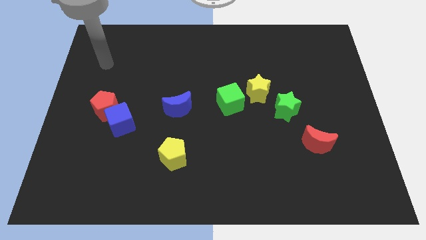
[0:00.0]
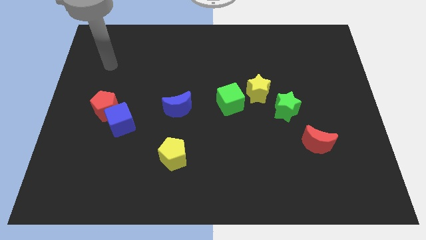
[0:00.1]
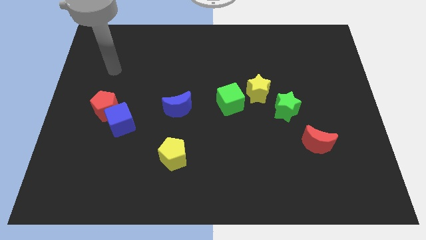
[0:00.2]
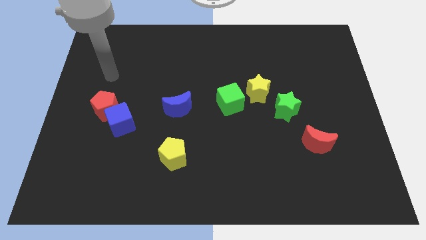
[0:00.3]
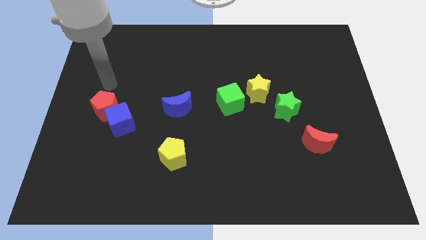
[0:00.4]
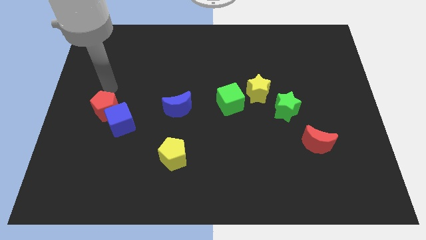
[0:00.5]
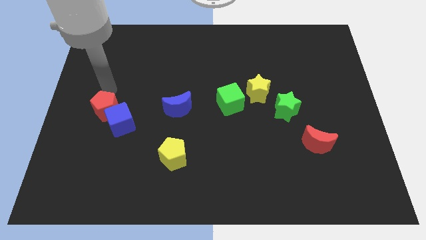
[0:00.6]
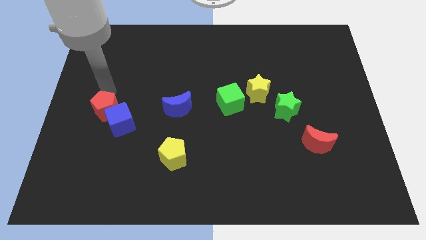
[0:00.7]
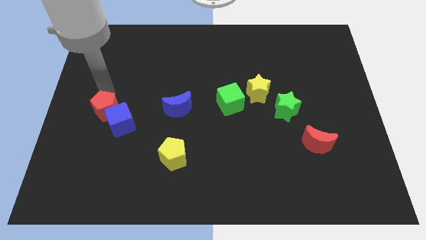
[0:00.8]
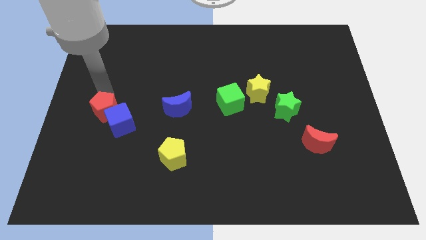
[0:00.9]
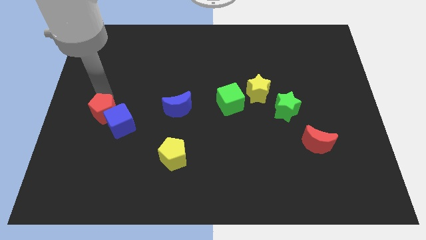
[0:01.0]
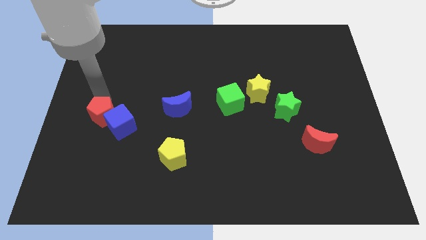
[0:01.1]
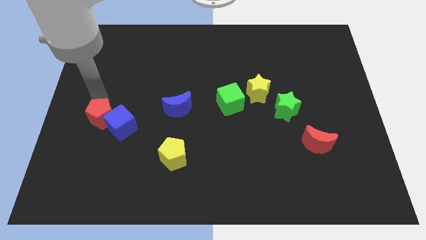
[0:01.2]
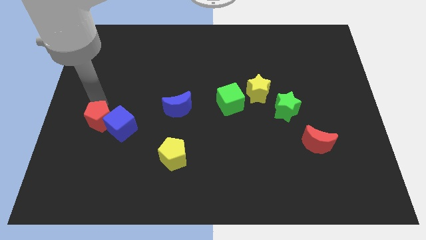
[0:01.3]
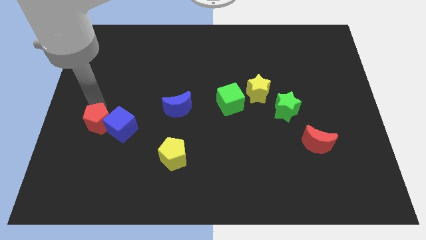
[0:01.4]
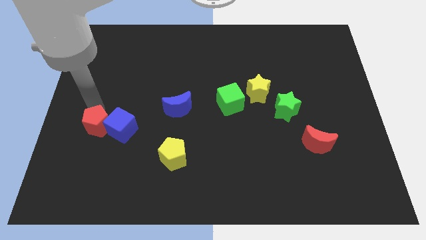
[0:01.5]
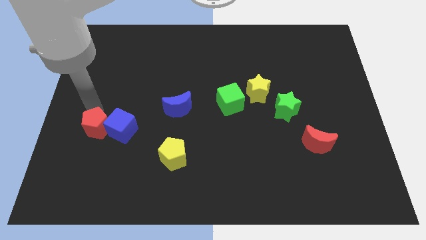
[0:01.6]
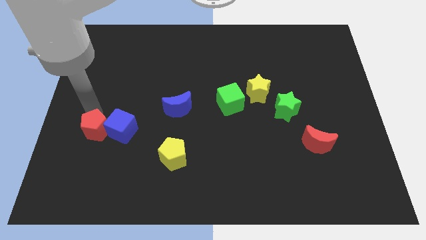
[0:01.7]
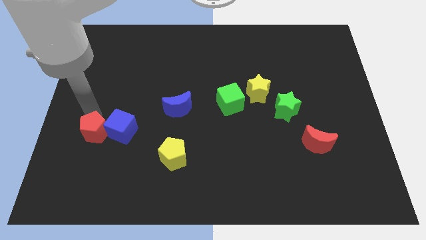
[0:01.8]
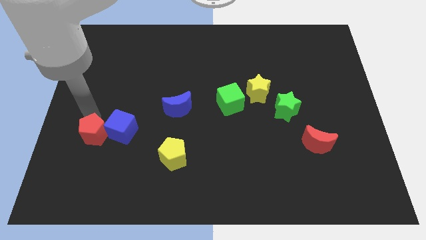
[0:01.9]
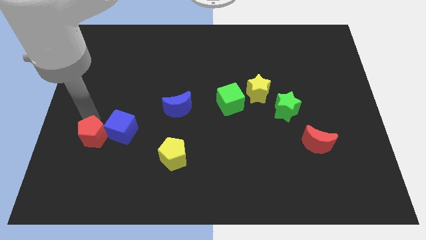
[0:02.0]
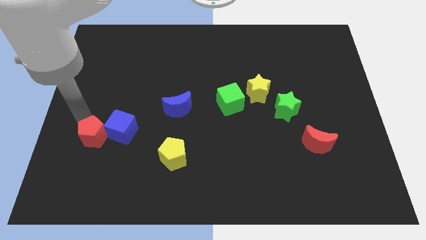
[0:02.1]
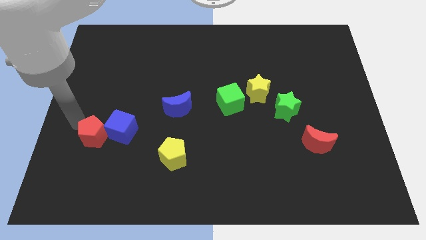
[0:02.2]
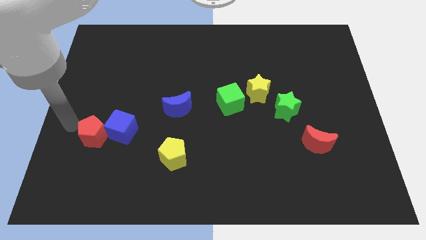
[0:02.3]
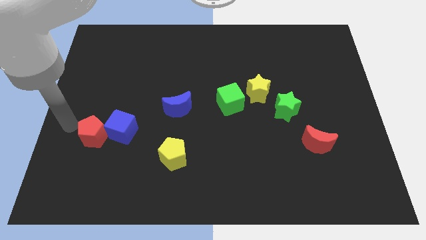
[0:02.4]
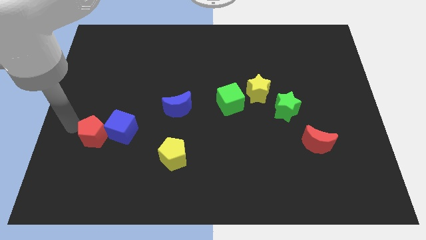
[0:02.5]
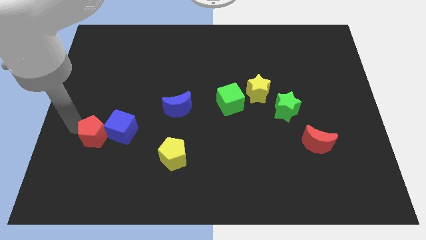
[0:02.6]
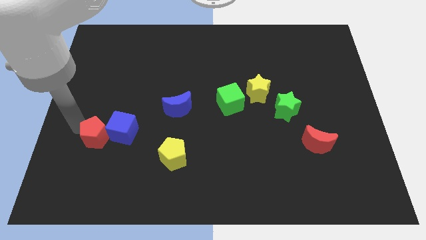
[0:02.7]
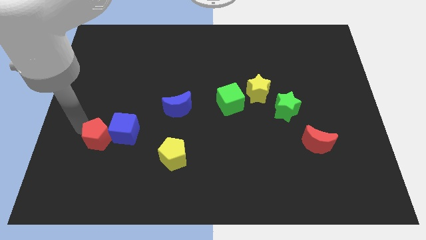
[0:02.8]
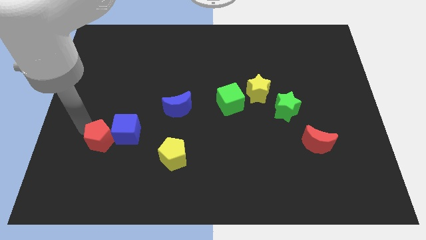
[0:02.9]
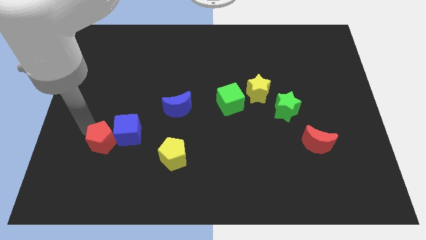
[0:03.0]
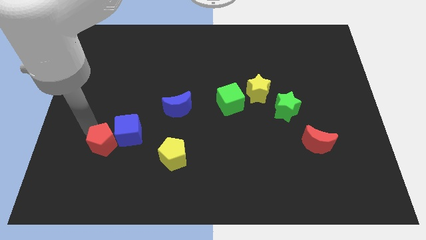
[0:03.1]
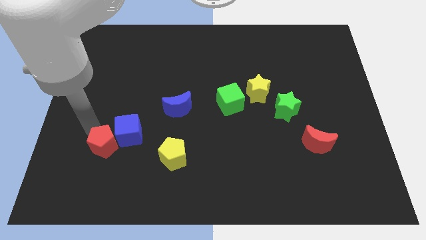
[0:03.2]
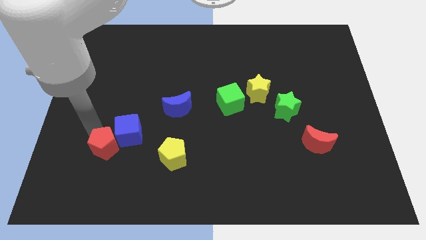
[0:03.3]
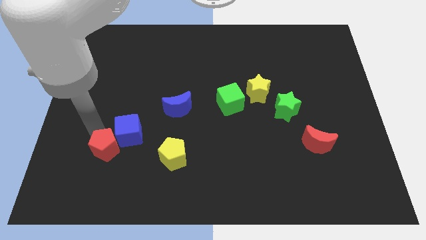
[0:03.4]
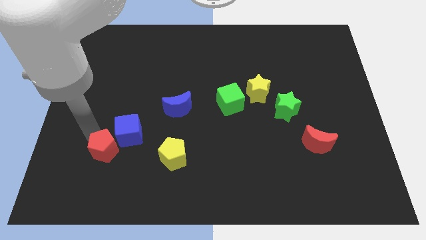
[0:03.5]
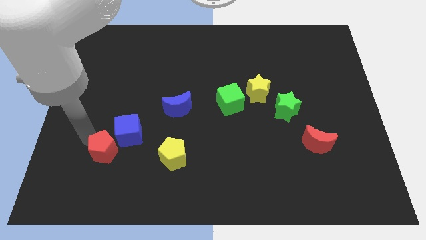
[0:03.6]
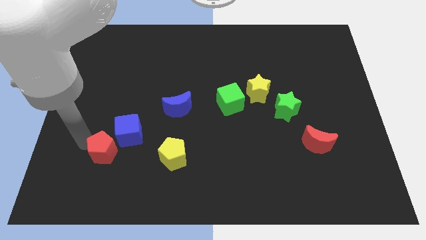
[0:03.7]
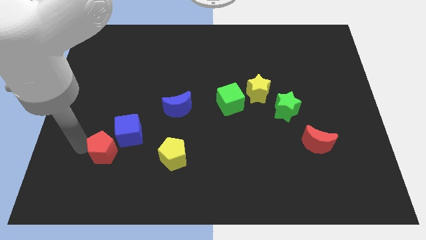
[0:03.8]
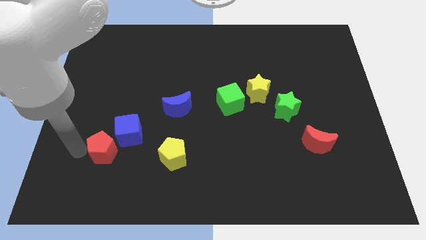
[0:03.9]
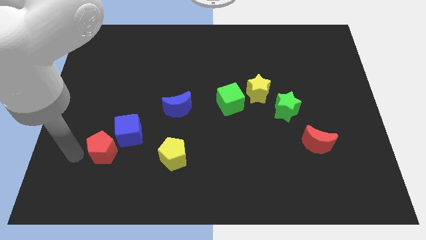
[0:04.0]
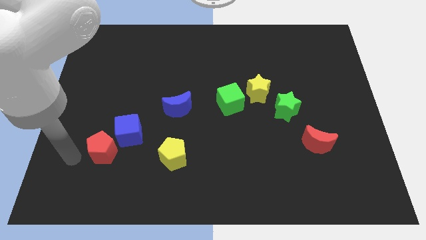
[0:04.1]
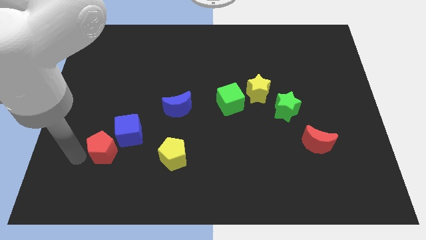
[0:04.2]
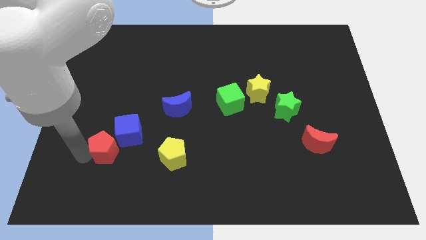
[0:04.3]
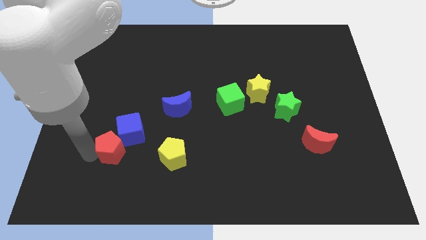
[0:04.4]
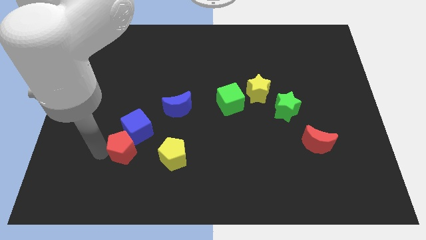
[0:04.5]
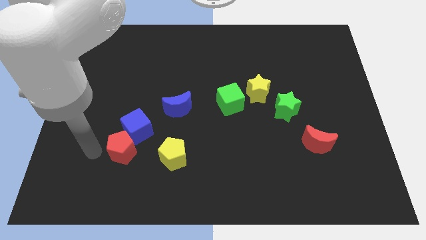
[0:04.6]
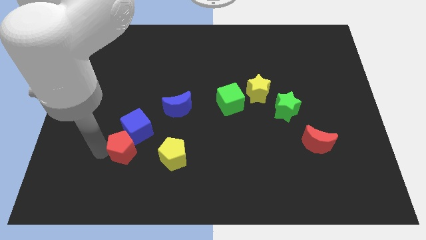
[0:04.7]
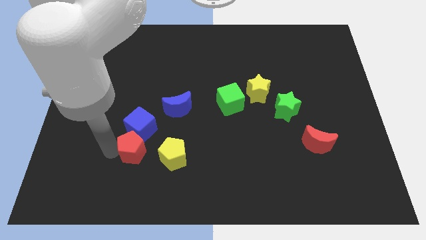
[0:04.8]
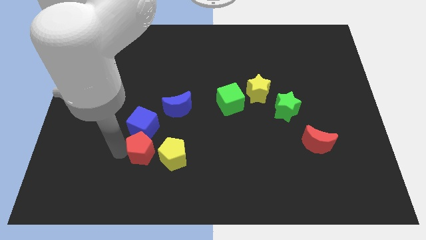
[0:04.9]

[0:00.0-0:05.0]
slide the red pentagon to the bottom right side of the blue cube
